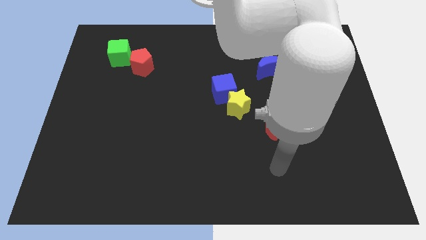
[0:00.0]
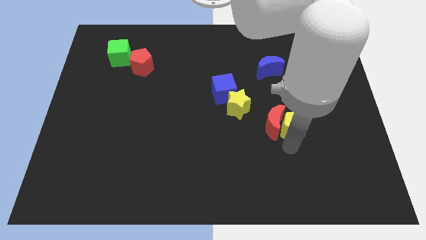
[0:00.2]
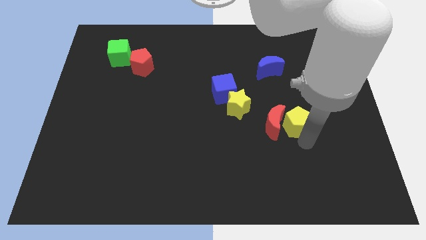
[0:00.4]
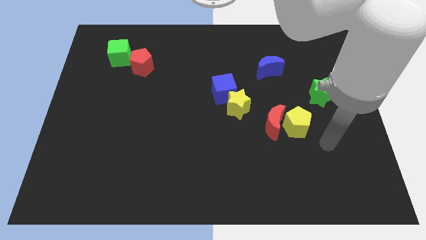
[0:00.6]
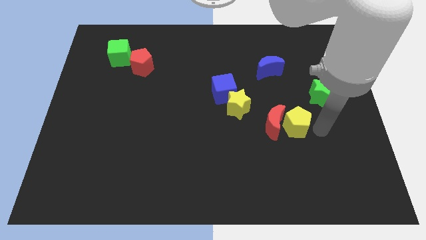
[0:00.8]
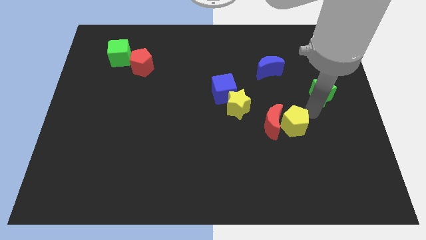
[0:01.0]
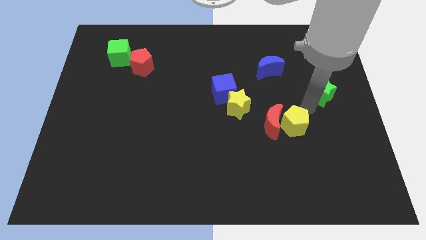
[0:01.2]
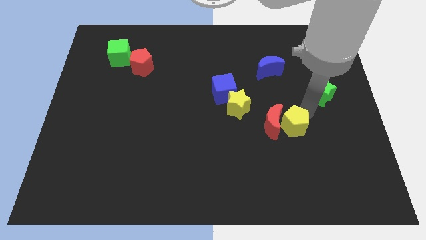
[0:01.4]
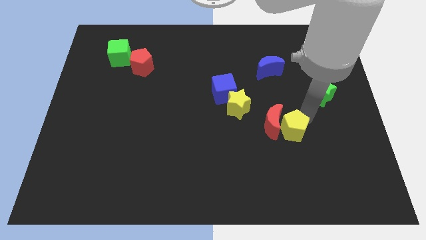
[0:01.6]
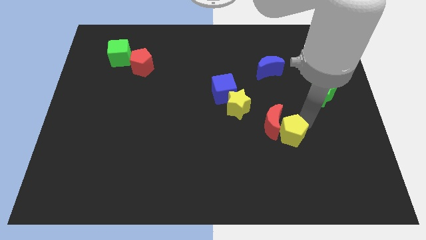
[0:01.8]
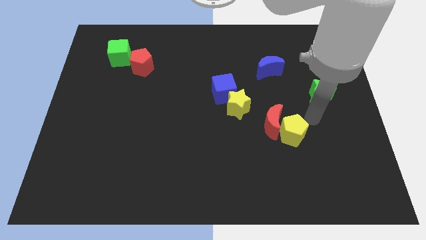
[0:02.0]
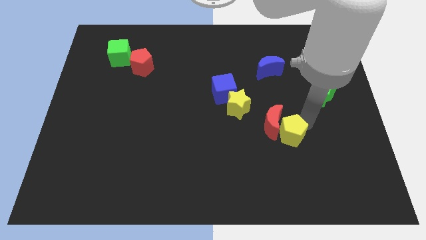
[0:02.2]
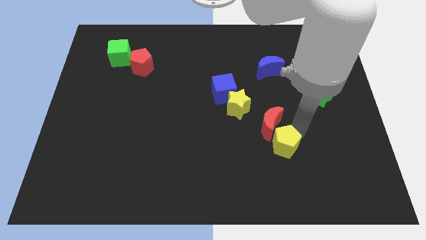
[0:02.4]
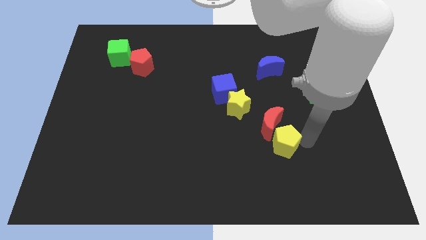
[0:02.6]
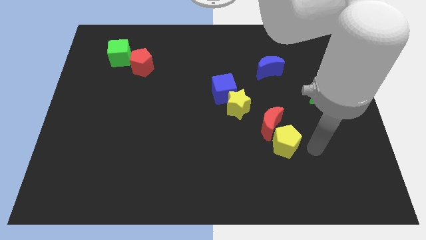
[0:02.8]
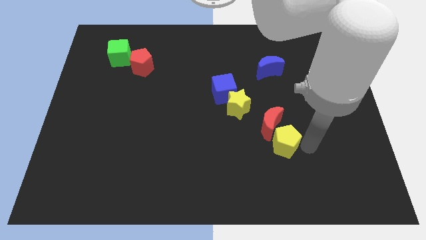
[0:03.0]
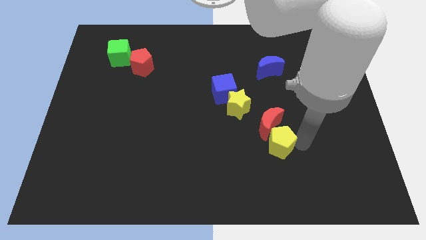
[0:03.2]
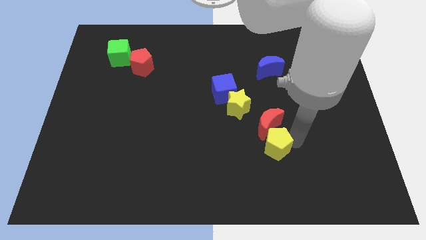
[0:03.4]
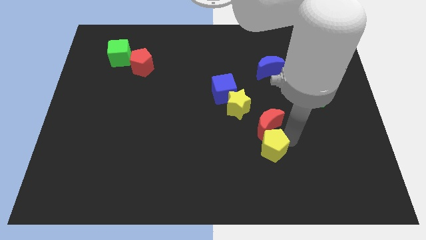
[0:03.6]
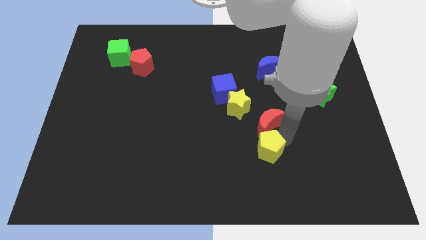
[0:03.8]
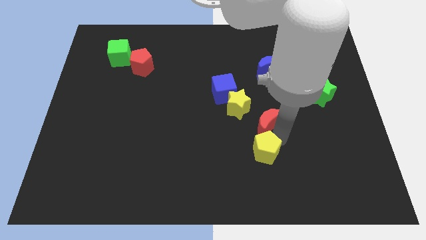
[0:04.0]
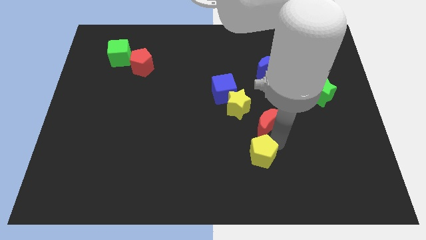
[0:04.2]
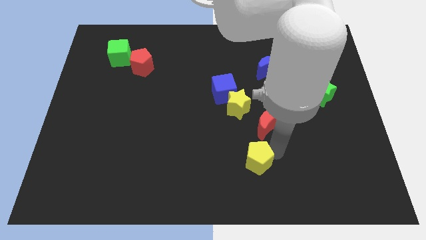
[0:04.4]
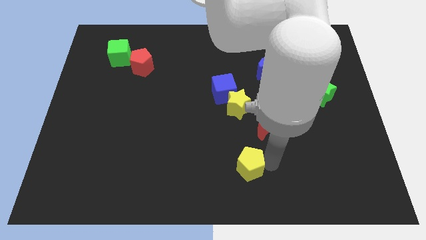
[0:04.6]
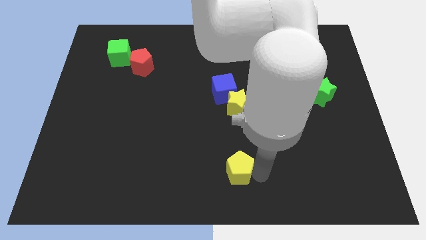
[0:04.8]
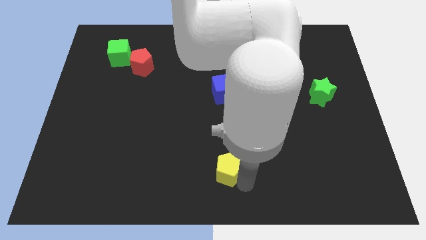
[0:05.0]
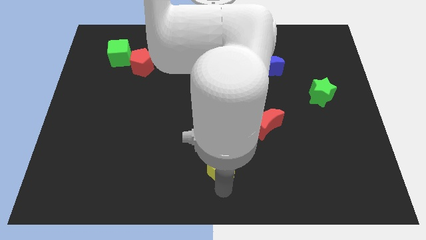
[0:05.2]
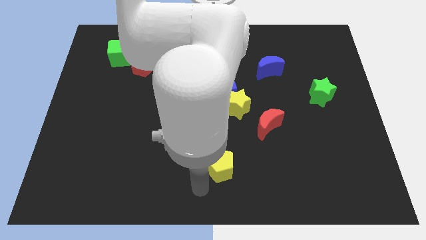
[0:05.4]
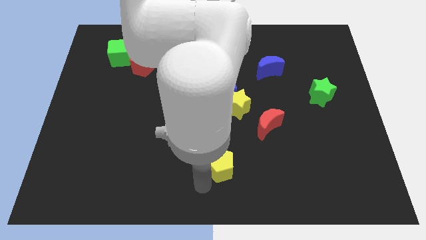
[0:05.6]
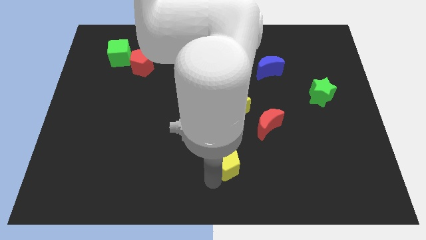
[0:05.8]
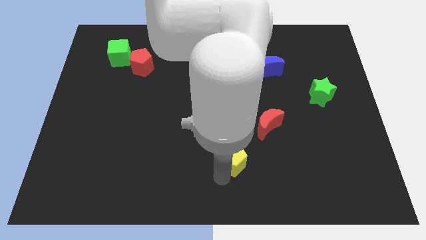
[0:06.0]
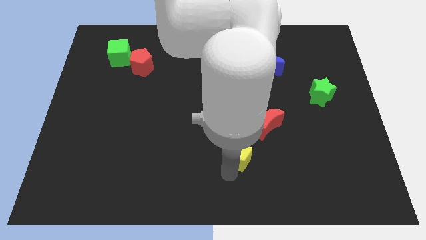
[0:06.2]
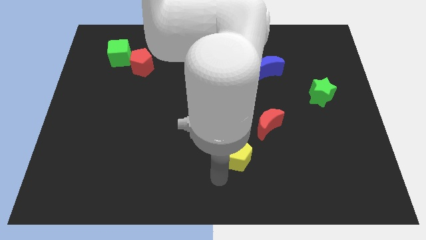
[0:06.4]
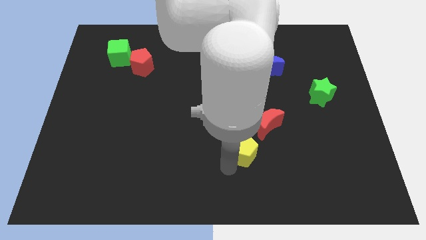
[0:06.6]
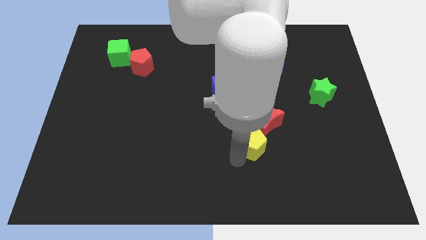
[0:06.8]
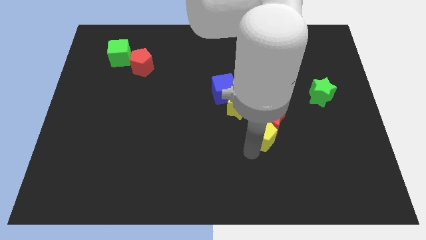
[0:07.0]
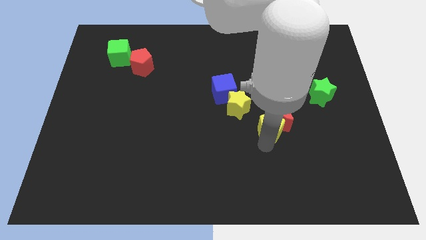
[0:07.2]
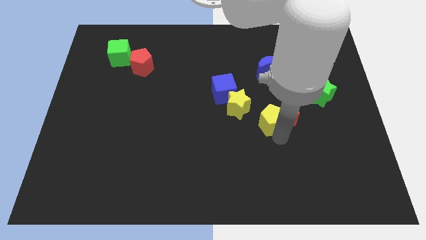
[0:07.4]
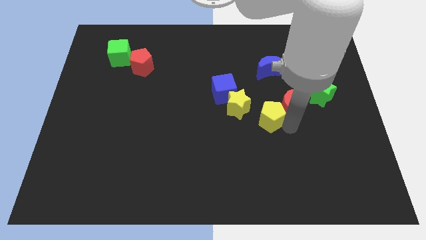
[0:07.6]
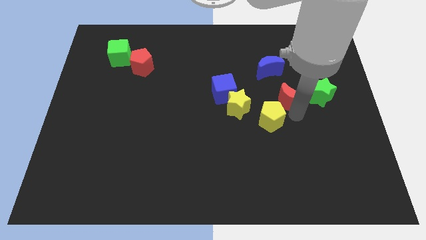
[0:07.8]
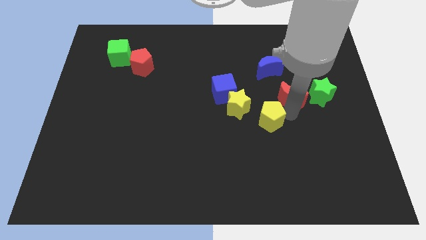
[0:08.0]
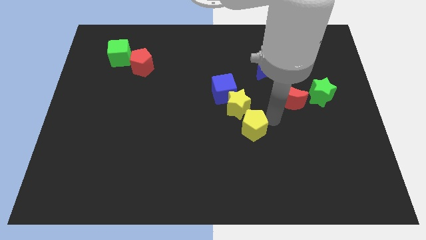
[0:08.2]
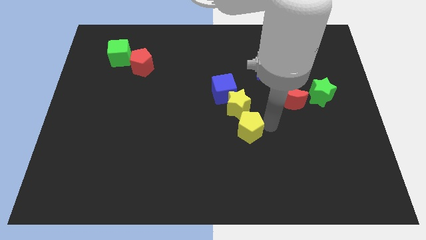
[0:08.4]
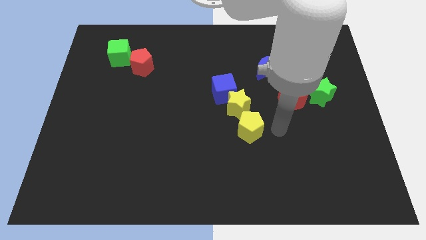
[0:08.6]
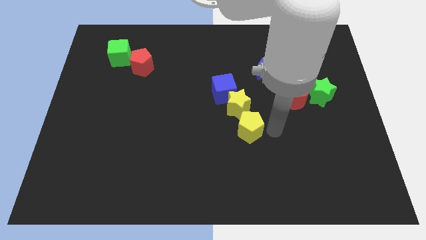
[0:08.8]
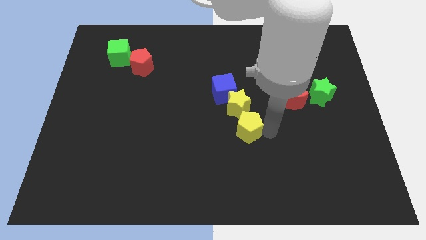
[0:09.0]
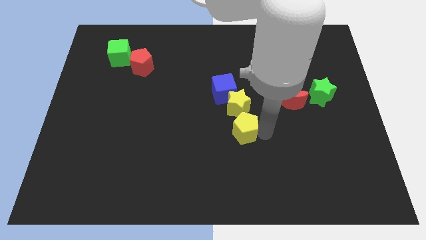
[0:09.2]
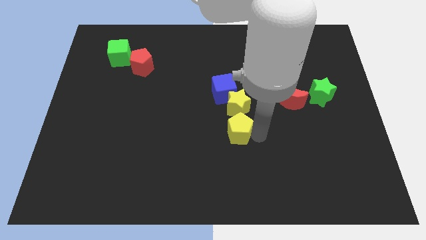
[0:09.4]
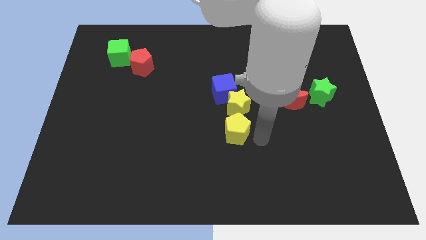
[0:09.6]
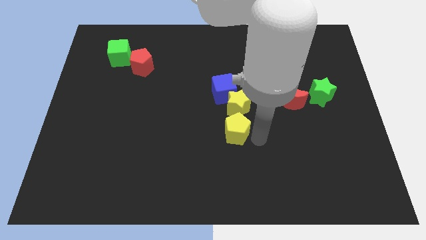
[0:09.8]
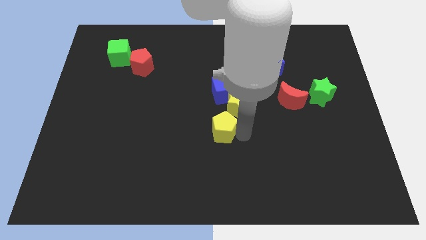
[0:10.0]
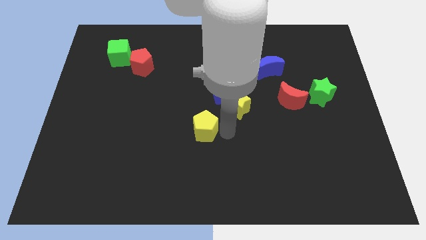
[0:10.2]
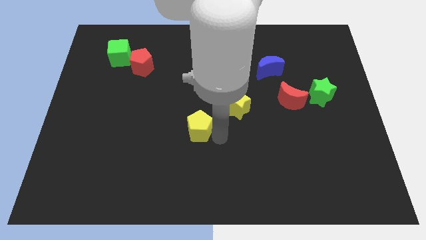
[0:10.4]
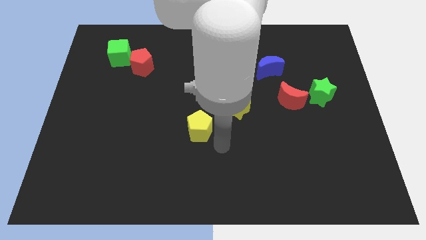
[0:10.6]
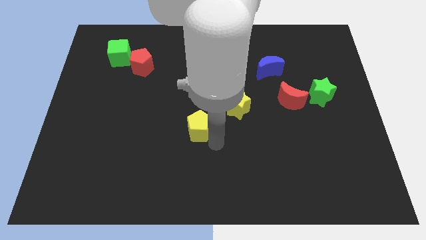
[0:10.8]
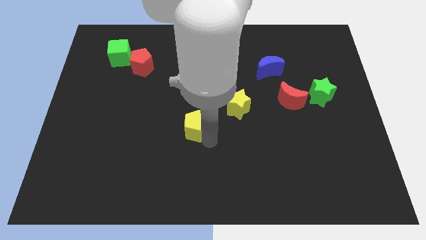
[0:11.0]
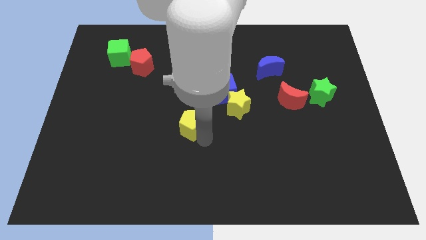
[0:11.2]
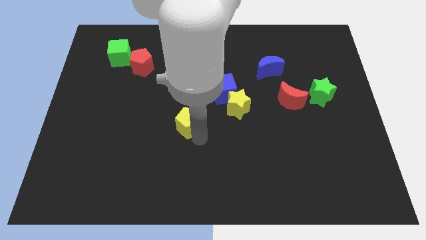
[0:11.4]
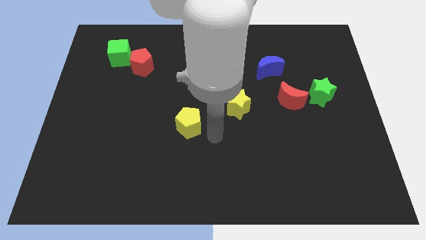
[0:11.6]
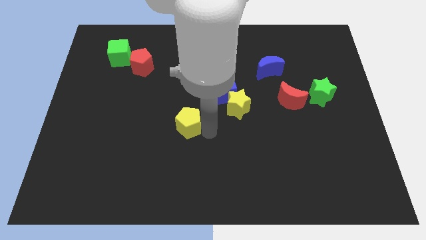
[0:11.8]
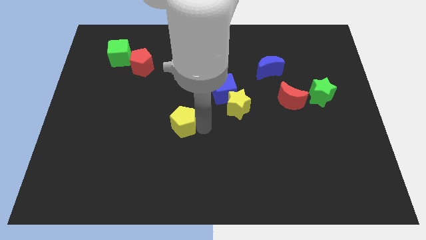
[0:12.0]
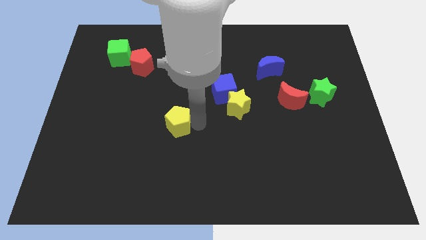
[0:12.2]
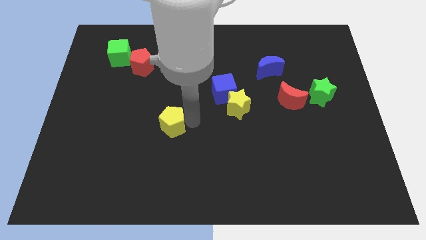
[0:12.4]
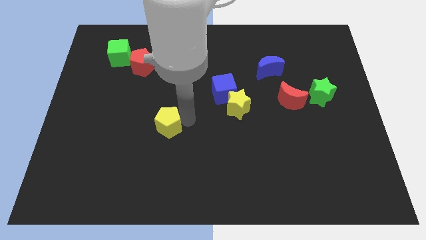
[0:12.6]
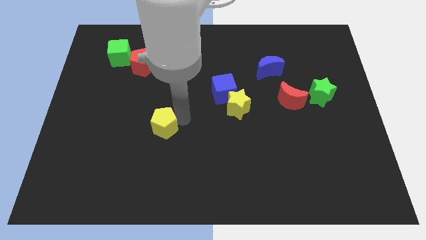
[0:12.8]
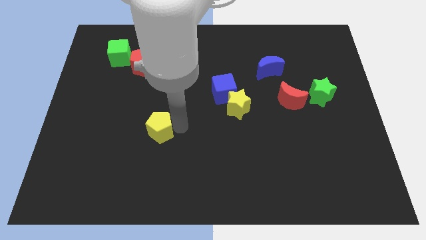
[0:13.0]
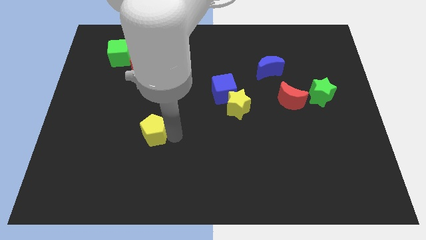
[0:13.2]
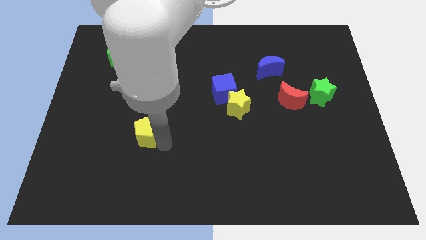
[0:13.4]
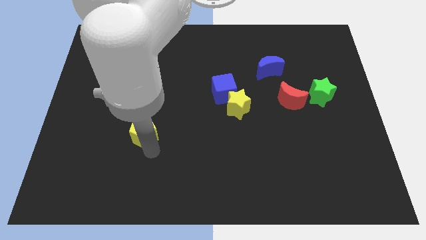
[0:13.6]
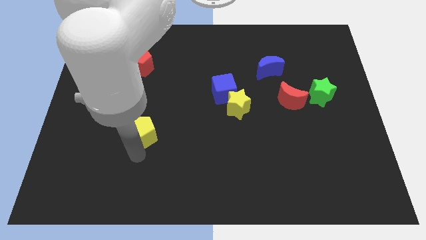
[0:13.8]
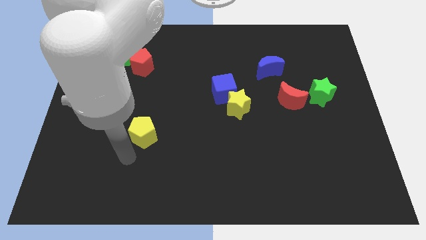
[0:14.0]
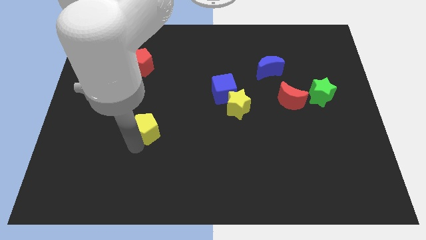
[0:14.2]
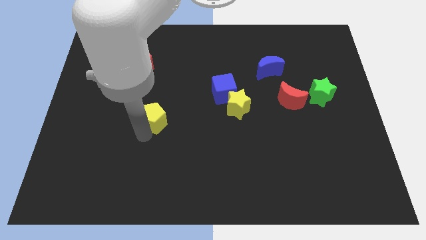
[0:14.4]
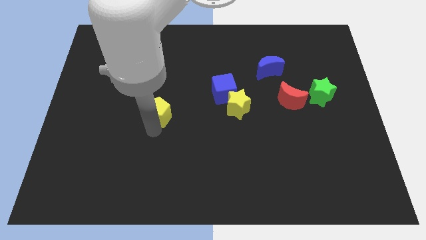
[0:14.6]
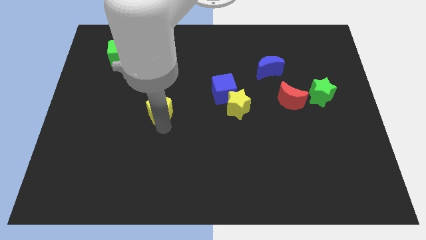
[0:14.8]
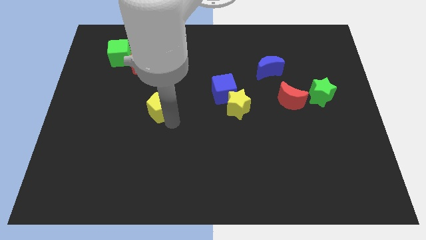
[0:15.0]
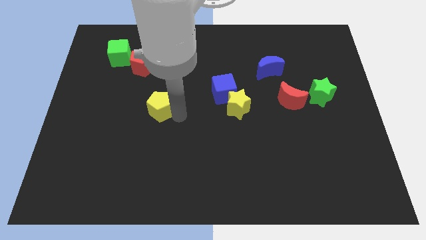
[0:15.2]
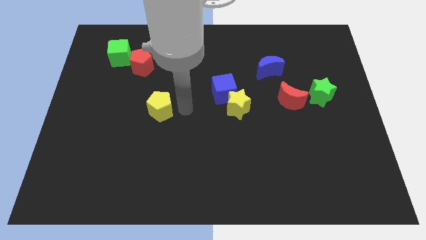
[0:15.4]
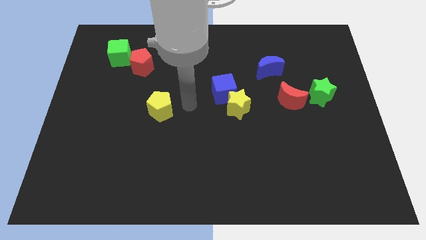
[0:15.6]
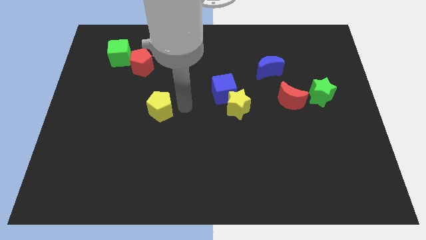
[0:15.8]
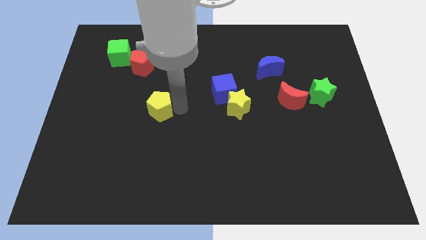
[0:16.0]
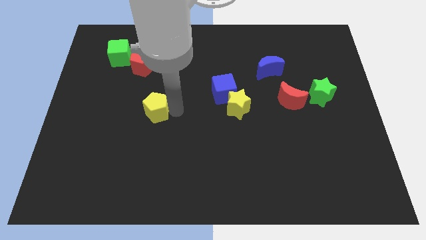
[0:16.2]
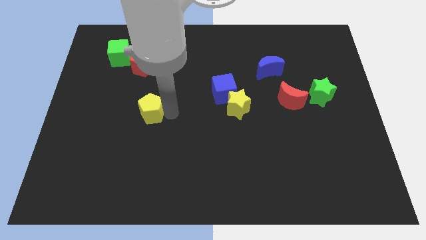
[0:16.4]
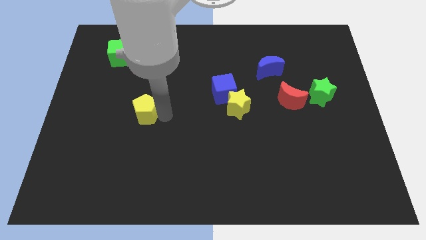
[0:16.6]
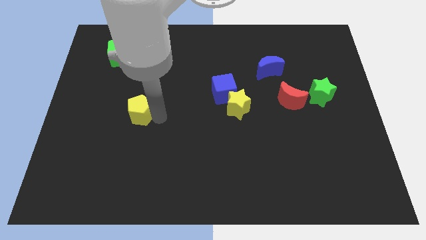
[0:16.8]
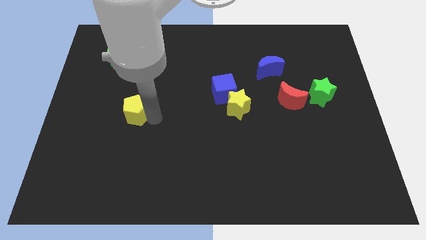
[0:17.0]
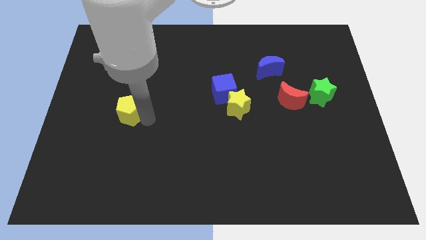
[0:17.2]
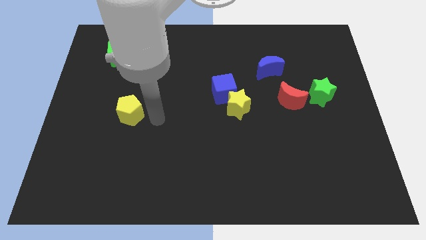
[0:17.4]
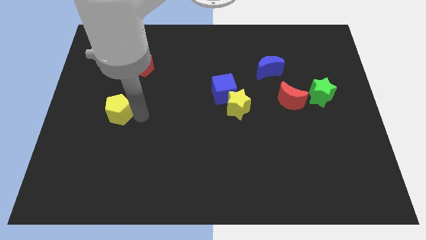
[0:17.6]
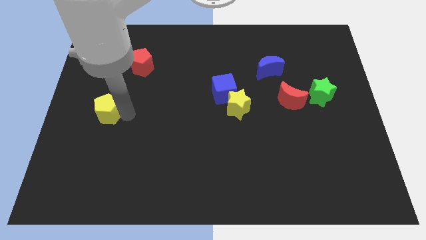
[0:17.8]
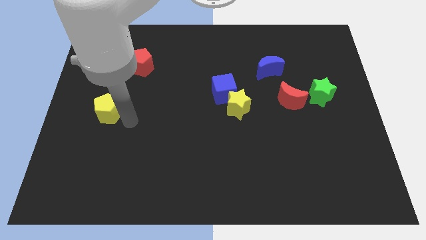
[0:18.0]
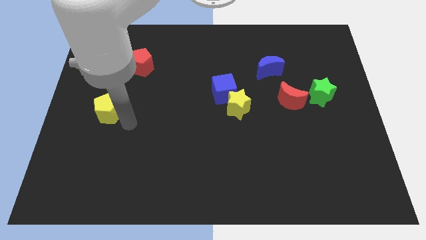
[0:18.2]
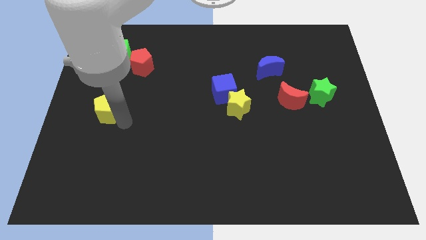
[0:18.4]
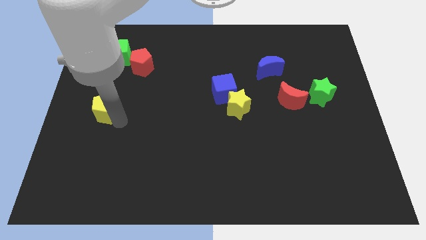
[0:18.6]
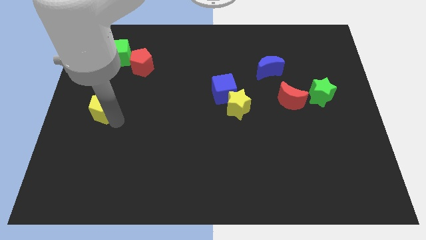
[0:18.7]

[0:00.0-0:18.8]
push the yellow pentagon to the center left
